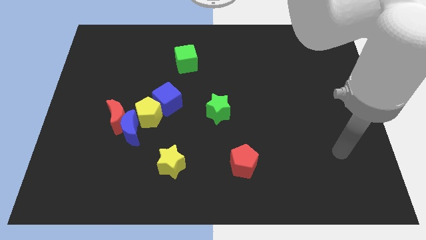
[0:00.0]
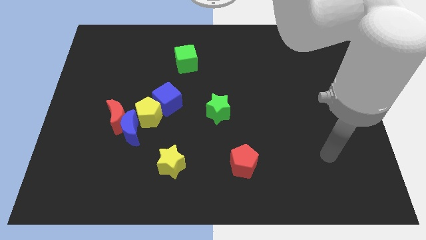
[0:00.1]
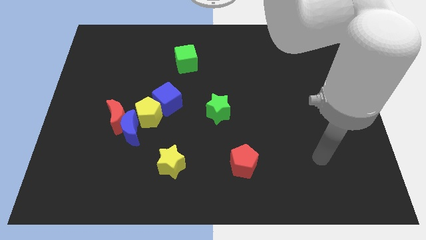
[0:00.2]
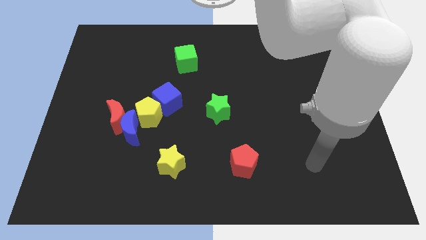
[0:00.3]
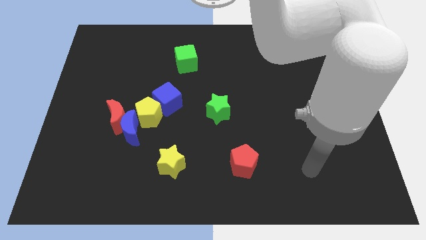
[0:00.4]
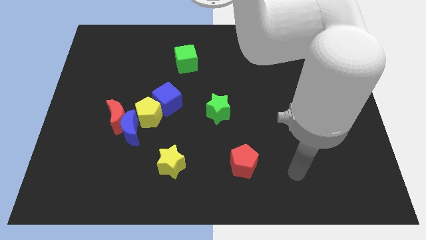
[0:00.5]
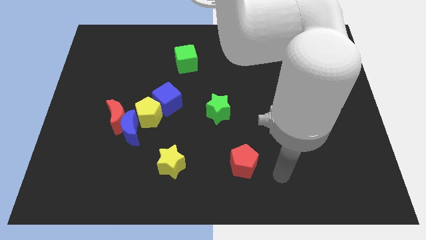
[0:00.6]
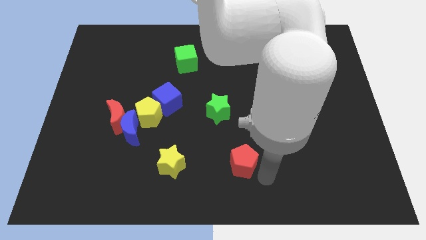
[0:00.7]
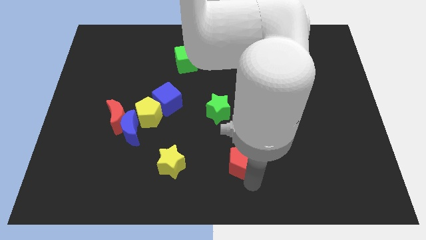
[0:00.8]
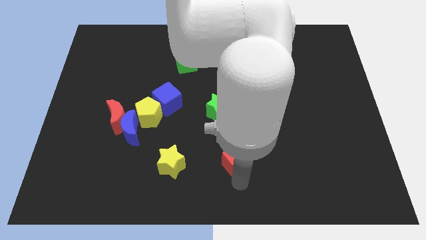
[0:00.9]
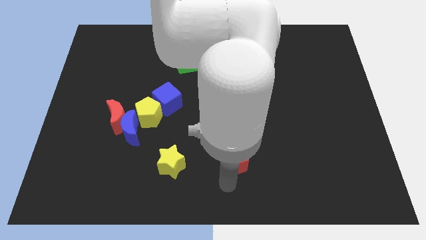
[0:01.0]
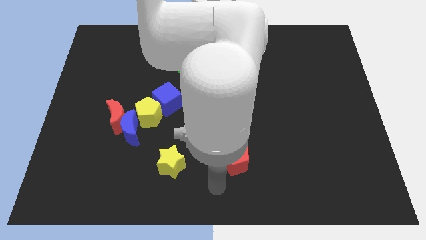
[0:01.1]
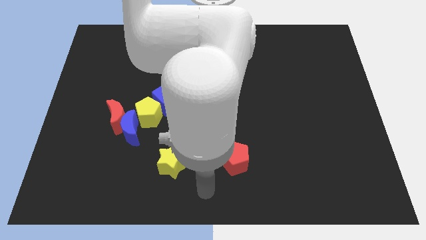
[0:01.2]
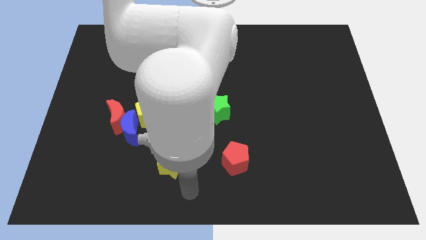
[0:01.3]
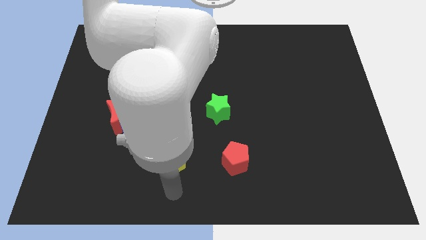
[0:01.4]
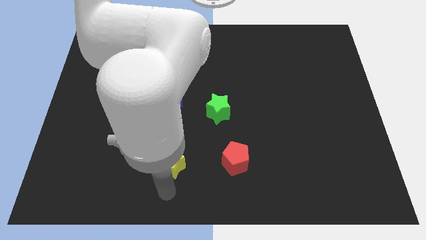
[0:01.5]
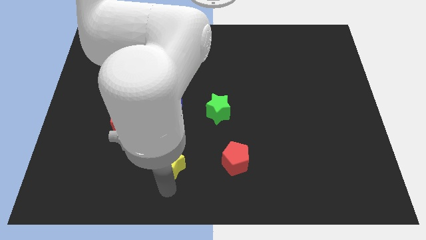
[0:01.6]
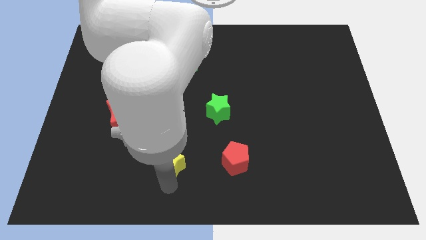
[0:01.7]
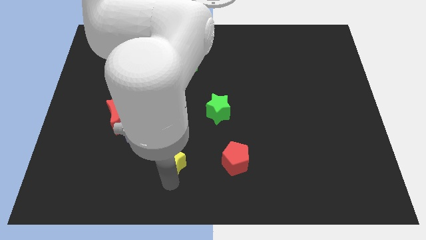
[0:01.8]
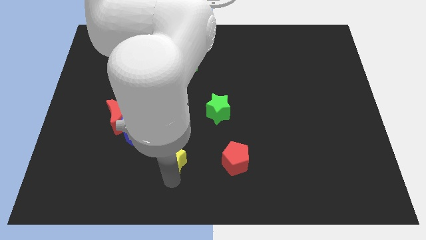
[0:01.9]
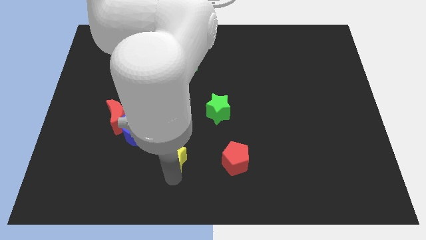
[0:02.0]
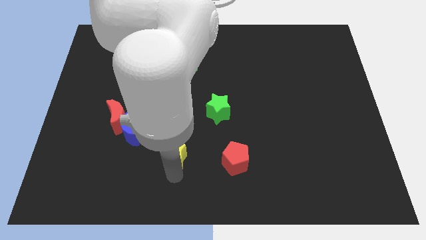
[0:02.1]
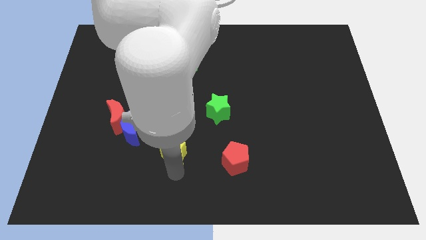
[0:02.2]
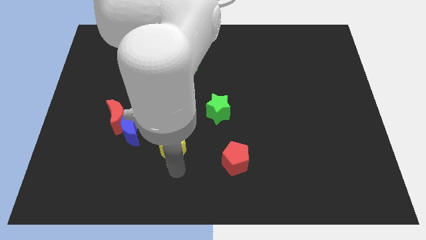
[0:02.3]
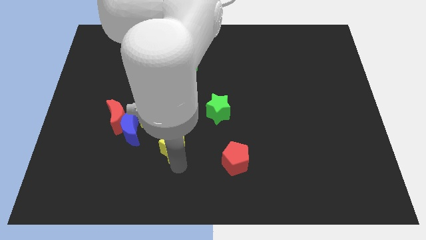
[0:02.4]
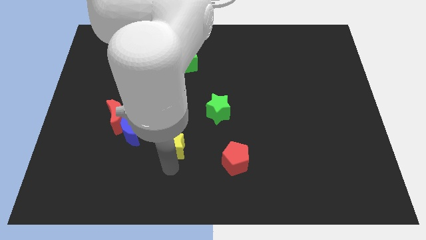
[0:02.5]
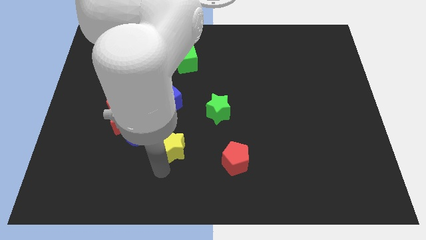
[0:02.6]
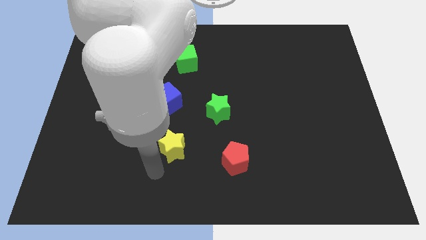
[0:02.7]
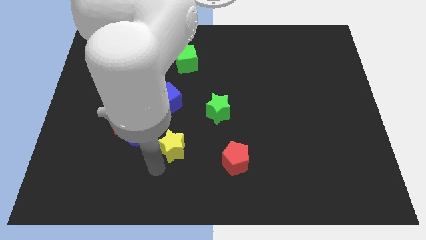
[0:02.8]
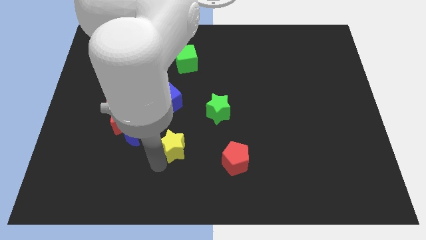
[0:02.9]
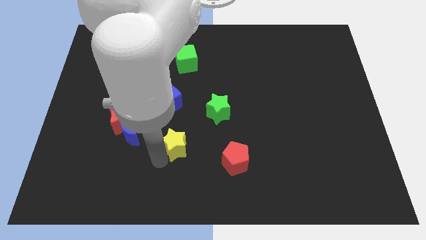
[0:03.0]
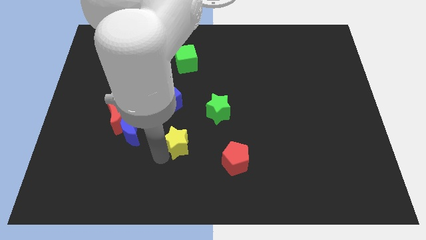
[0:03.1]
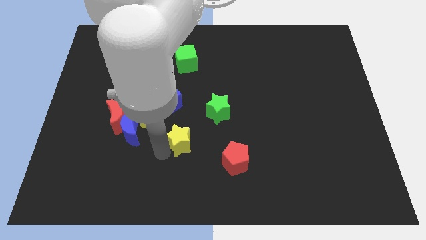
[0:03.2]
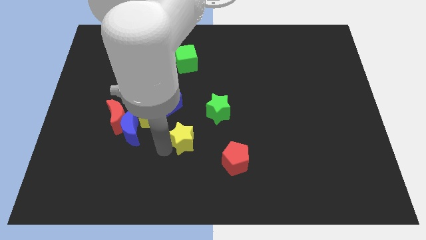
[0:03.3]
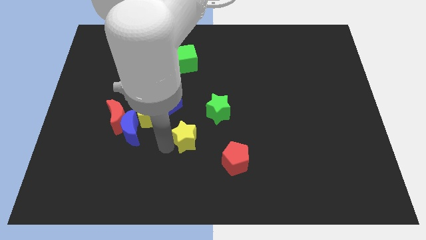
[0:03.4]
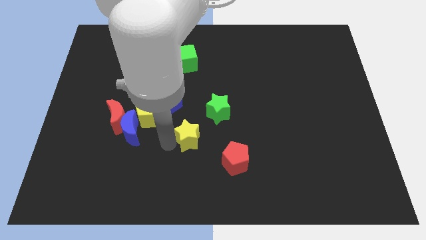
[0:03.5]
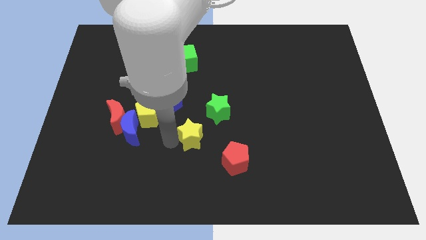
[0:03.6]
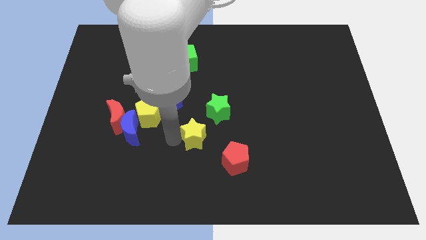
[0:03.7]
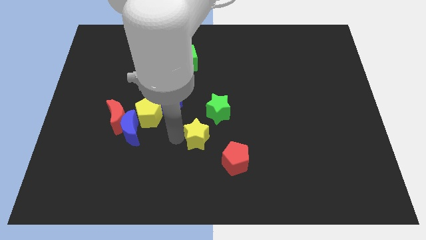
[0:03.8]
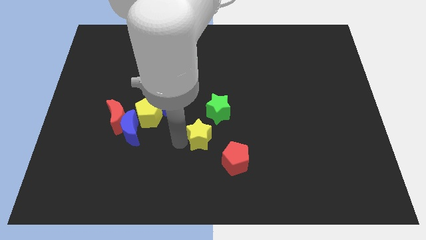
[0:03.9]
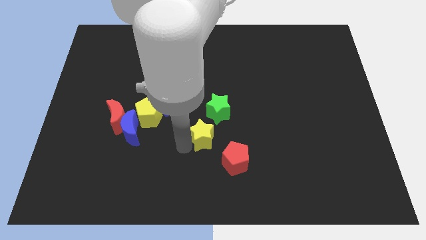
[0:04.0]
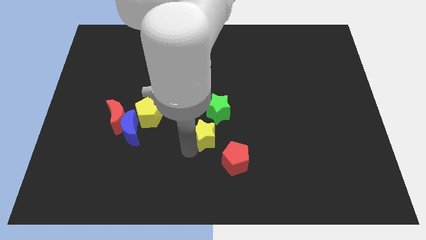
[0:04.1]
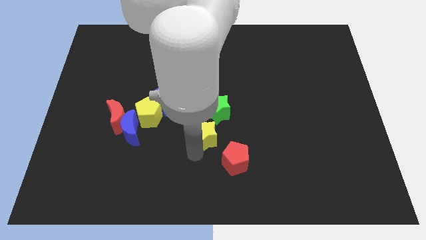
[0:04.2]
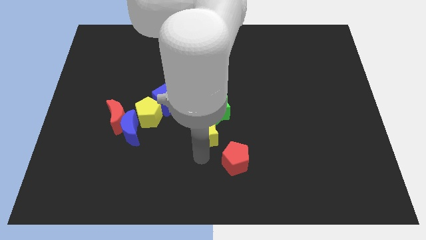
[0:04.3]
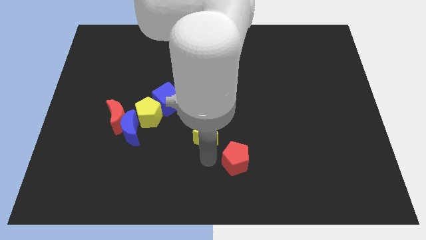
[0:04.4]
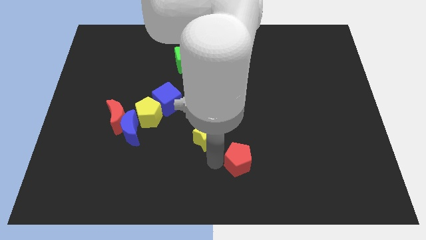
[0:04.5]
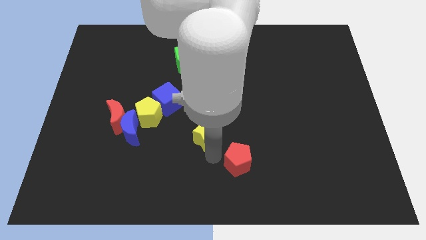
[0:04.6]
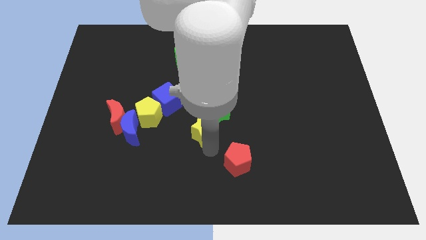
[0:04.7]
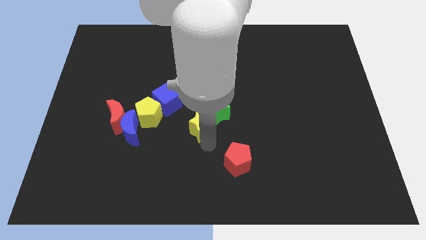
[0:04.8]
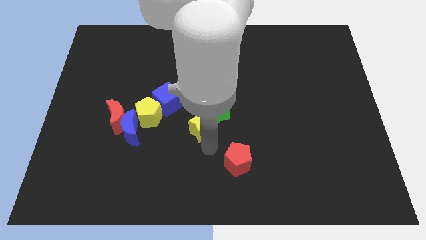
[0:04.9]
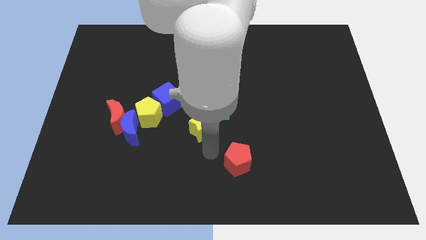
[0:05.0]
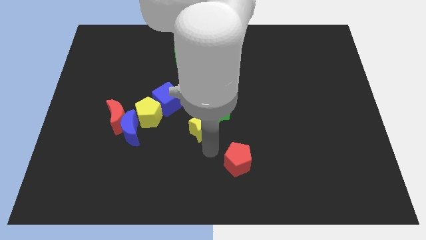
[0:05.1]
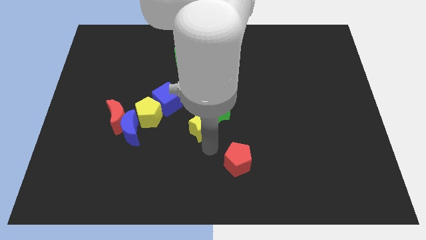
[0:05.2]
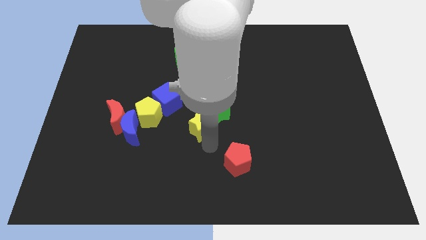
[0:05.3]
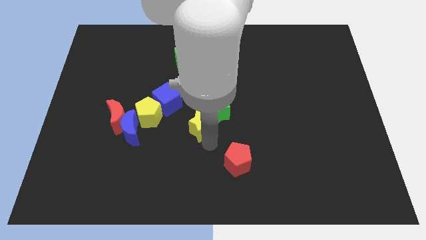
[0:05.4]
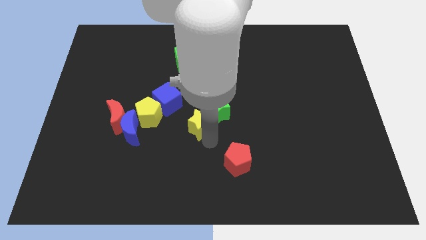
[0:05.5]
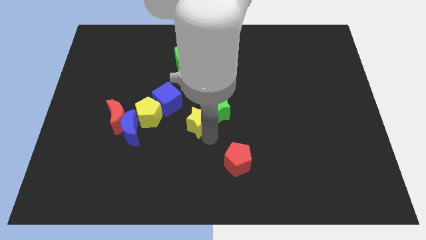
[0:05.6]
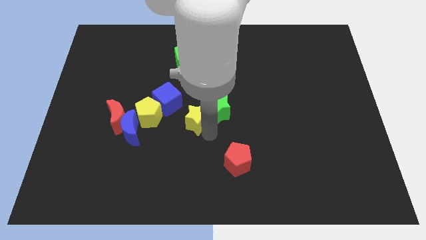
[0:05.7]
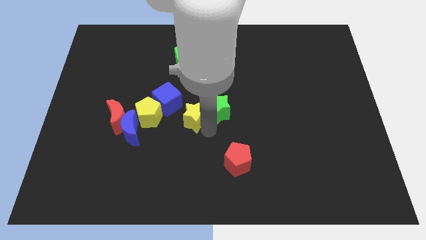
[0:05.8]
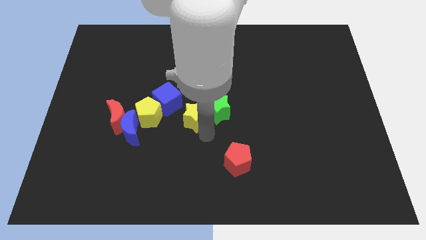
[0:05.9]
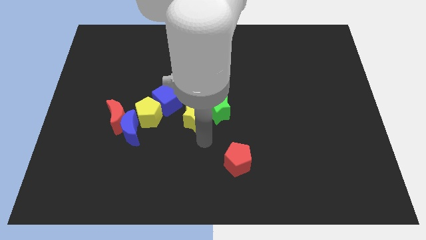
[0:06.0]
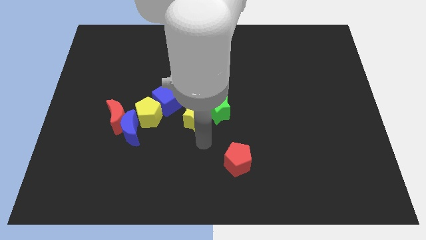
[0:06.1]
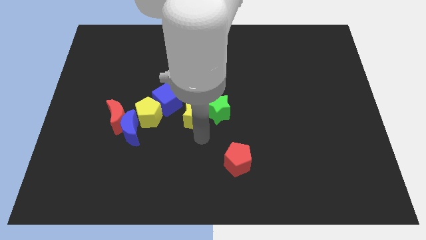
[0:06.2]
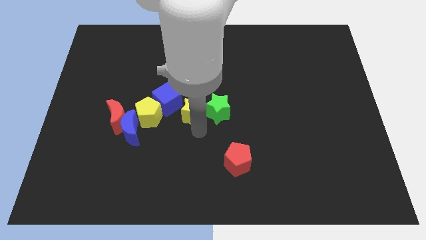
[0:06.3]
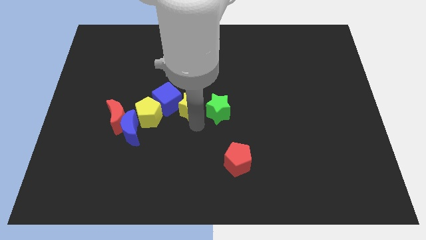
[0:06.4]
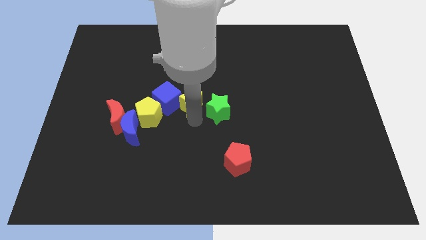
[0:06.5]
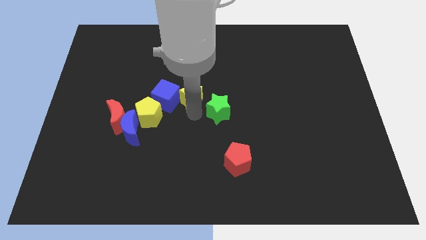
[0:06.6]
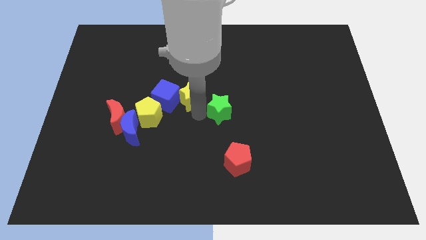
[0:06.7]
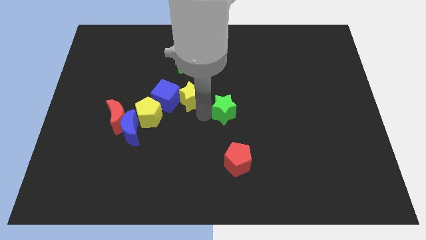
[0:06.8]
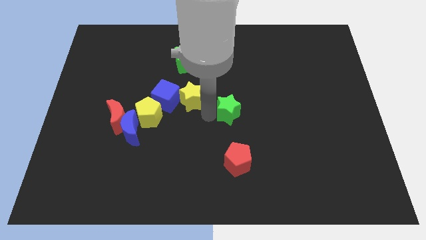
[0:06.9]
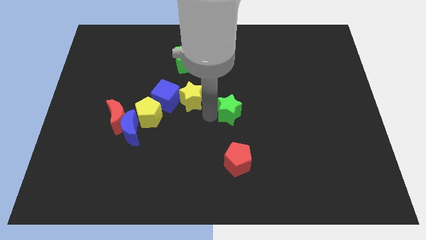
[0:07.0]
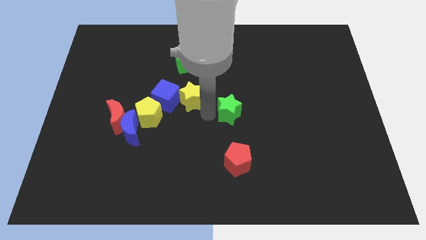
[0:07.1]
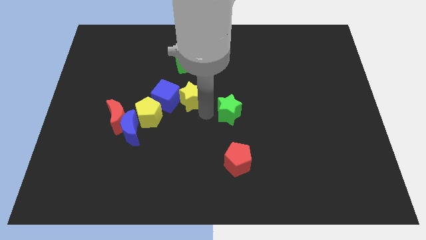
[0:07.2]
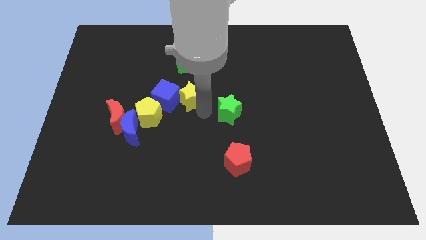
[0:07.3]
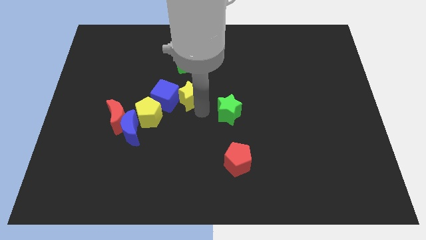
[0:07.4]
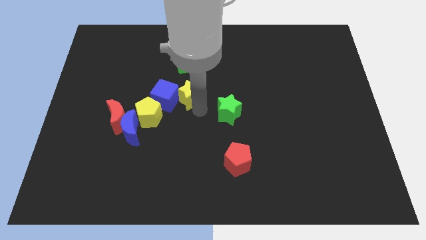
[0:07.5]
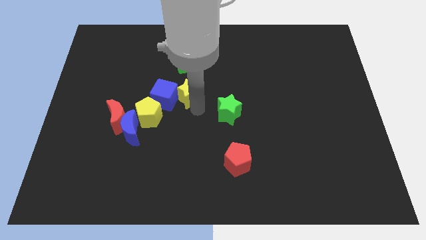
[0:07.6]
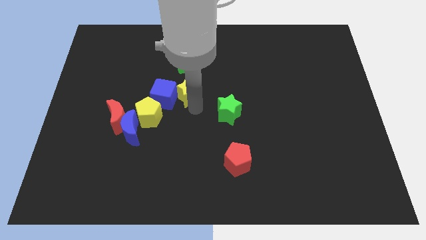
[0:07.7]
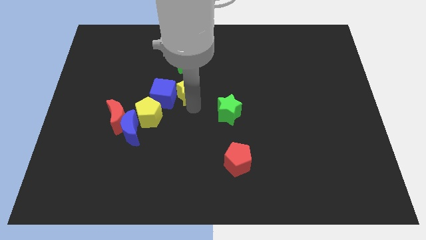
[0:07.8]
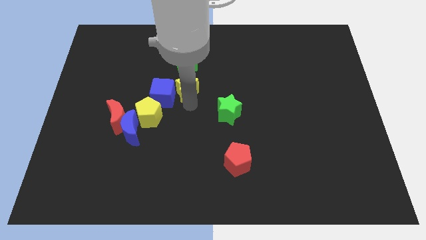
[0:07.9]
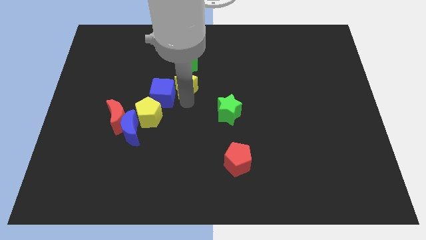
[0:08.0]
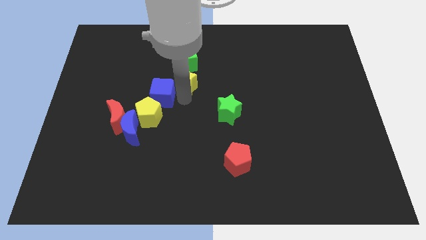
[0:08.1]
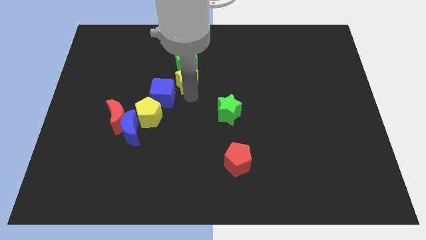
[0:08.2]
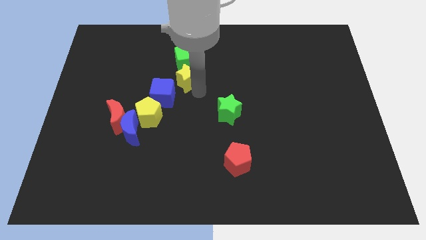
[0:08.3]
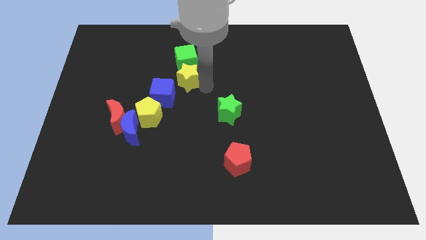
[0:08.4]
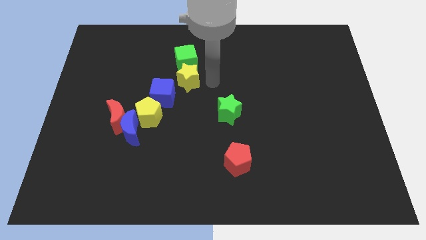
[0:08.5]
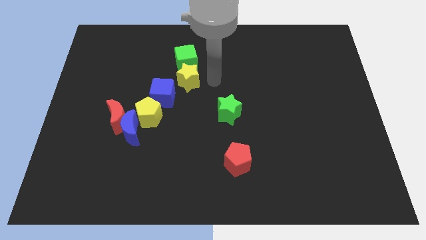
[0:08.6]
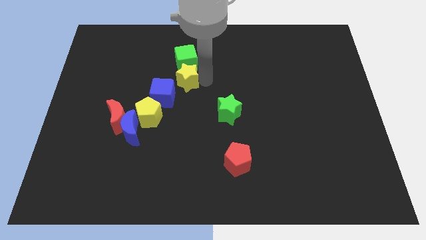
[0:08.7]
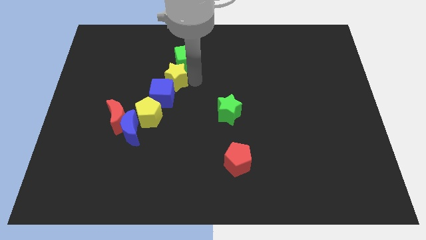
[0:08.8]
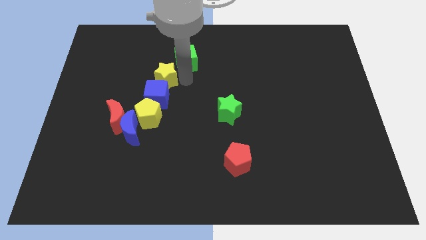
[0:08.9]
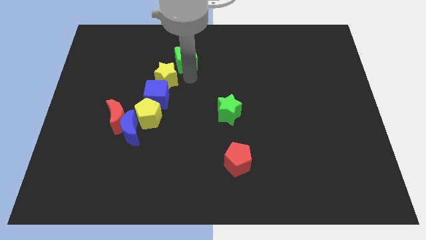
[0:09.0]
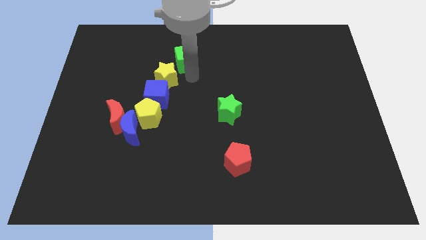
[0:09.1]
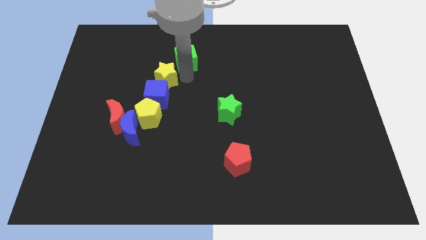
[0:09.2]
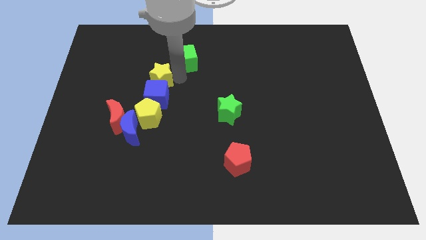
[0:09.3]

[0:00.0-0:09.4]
move the yellow star diagonally up and to the left of the blue cube
